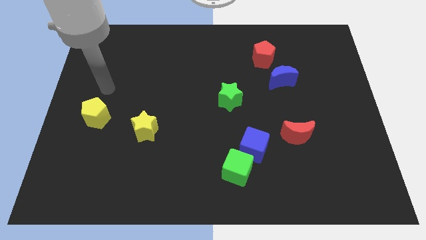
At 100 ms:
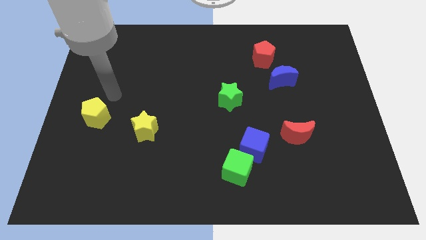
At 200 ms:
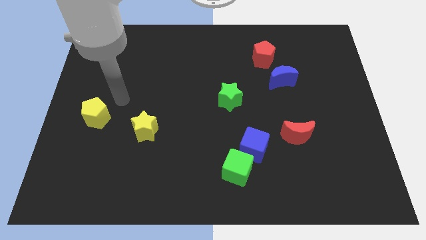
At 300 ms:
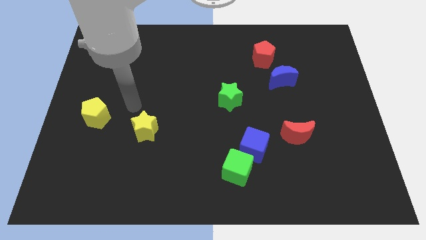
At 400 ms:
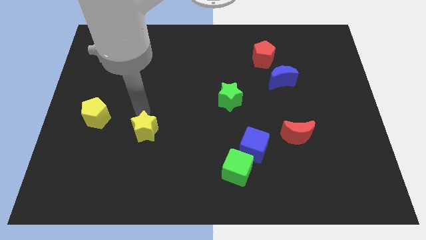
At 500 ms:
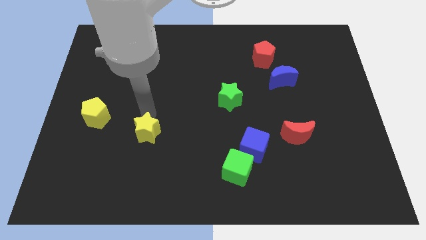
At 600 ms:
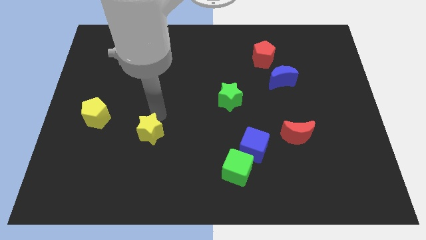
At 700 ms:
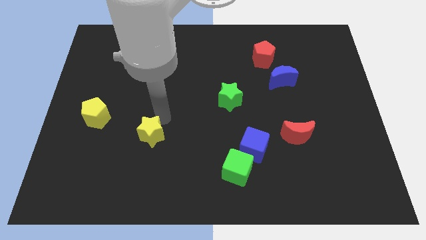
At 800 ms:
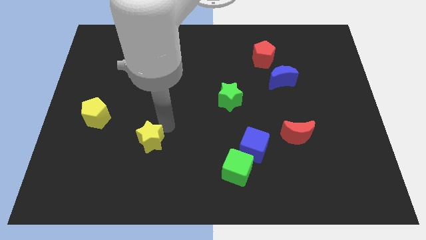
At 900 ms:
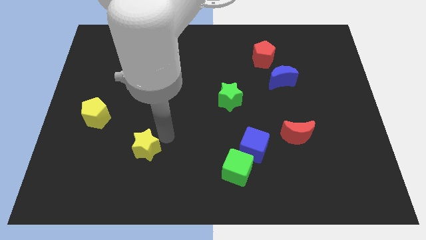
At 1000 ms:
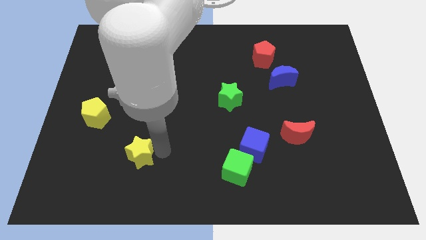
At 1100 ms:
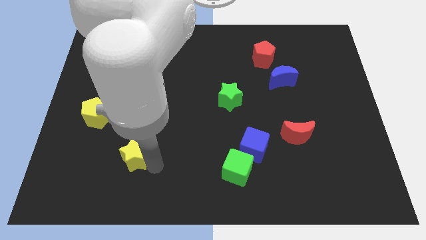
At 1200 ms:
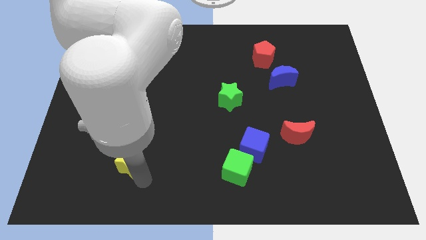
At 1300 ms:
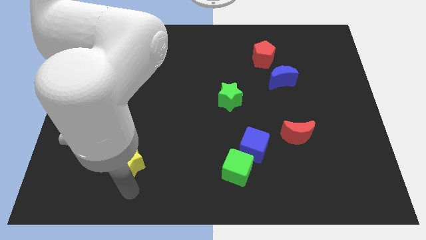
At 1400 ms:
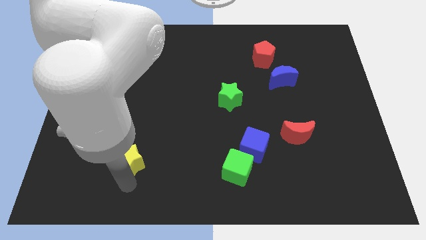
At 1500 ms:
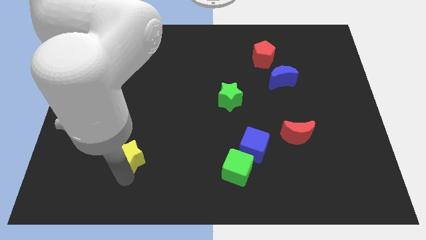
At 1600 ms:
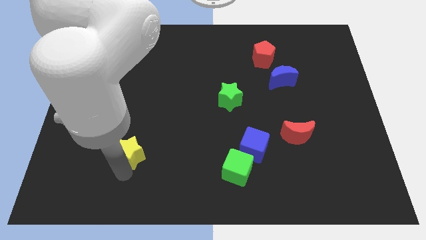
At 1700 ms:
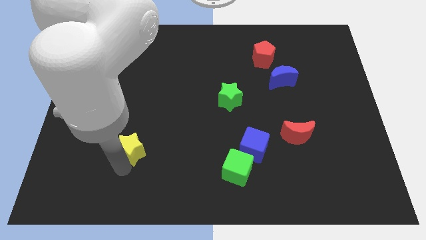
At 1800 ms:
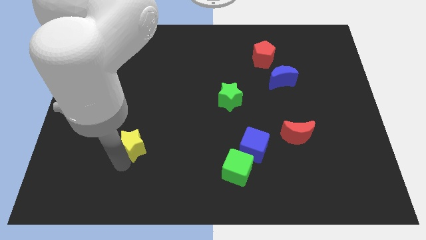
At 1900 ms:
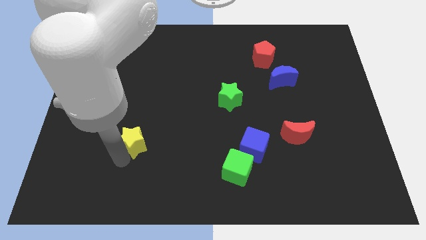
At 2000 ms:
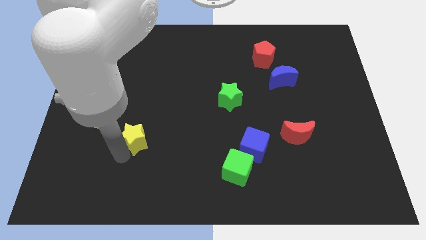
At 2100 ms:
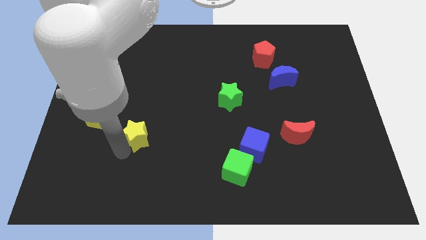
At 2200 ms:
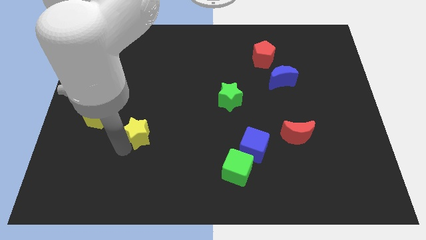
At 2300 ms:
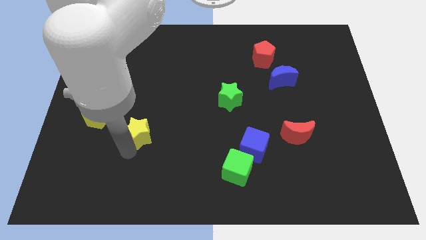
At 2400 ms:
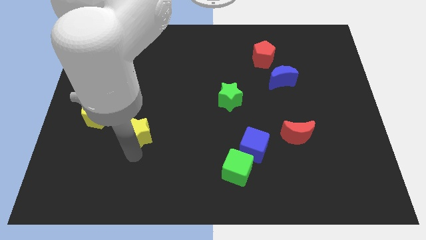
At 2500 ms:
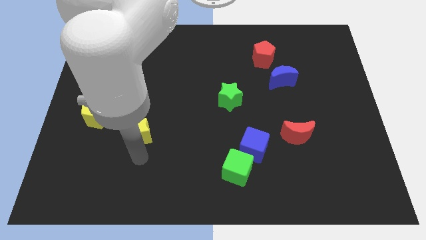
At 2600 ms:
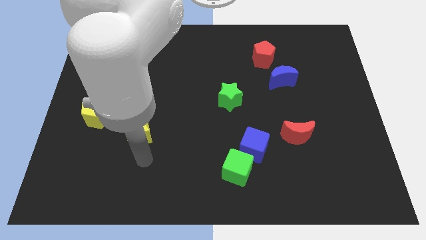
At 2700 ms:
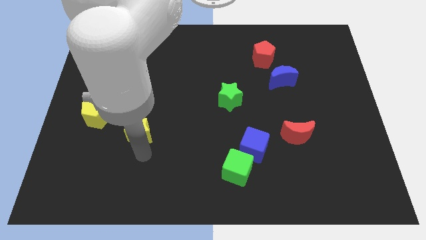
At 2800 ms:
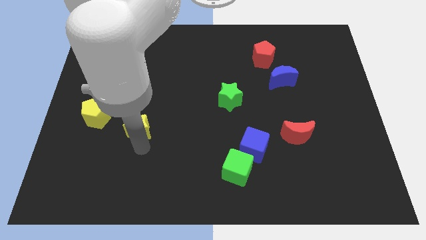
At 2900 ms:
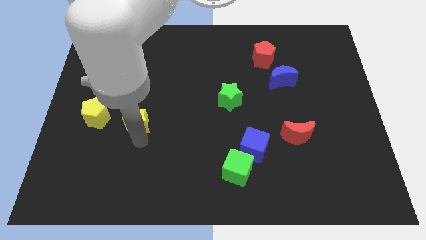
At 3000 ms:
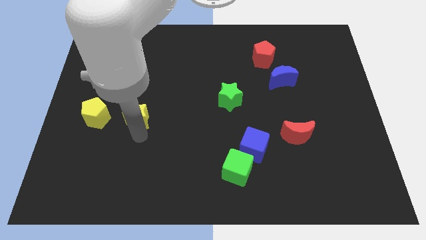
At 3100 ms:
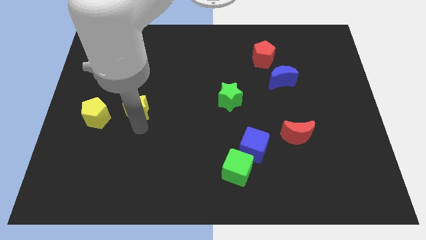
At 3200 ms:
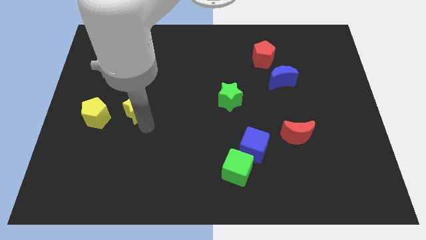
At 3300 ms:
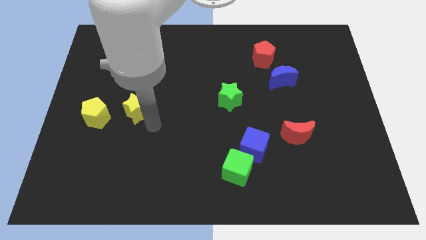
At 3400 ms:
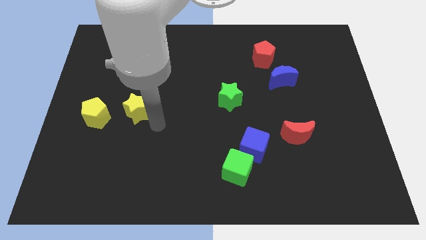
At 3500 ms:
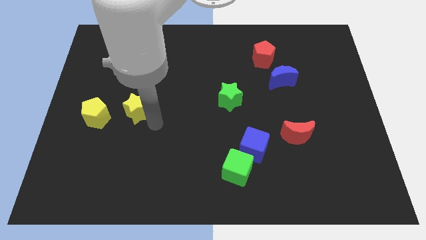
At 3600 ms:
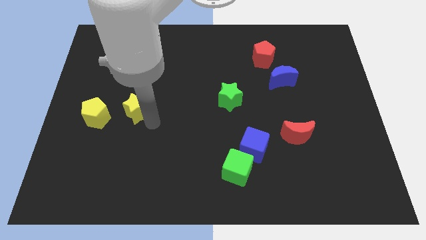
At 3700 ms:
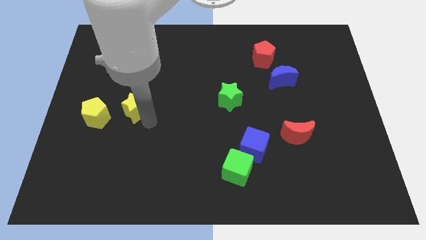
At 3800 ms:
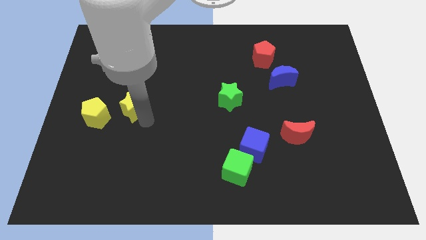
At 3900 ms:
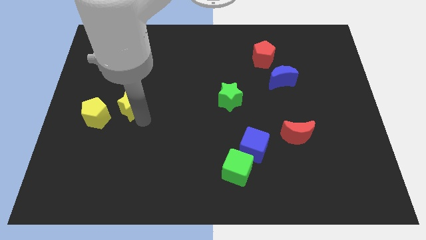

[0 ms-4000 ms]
push the yellow star a little bit upwards and then left

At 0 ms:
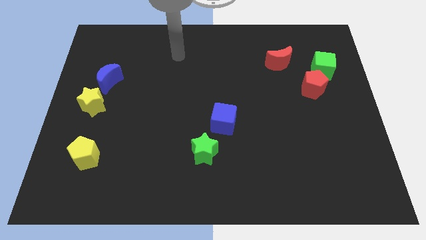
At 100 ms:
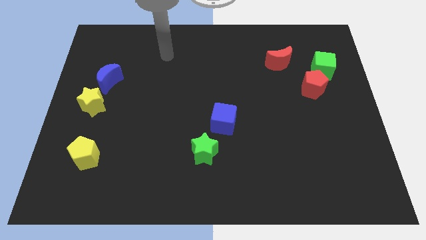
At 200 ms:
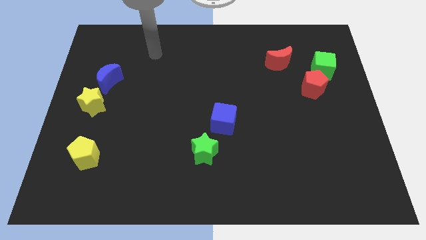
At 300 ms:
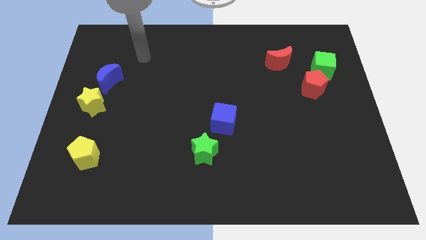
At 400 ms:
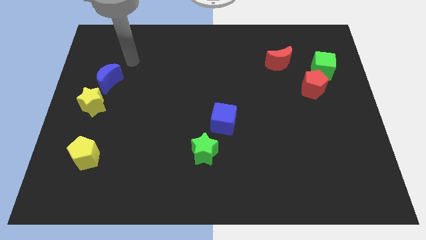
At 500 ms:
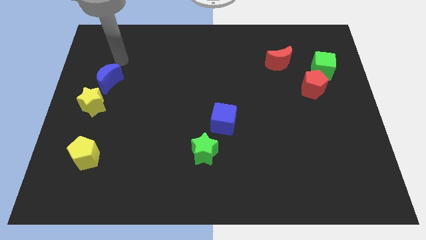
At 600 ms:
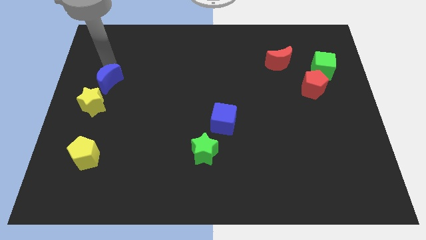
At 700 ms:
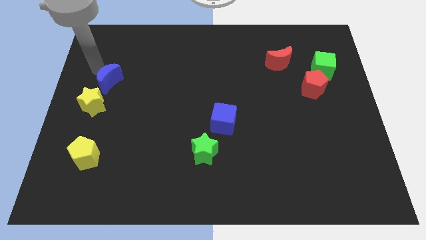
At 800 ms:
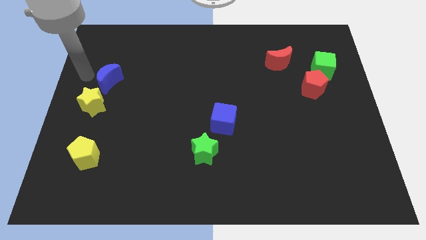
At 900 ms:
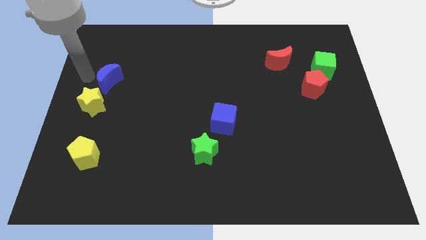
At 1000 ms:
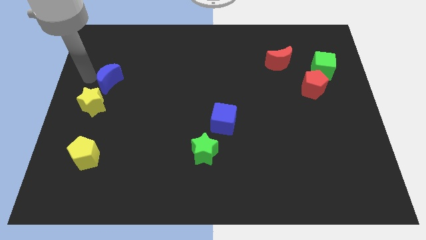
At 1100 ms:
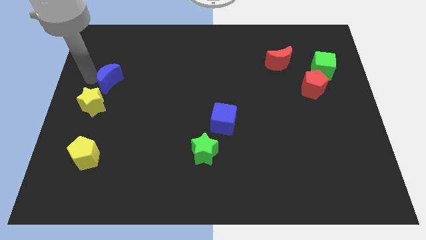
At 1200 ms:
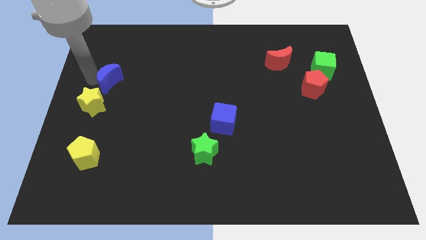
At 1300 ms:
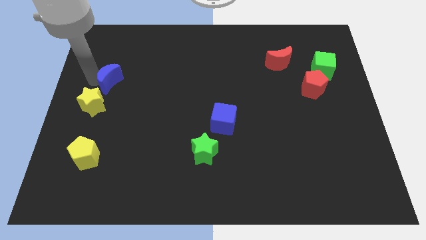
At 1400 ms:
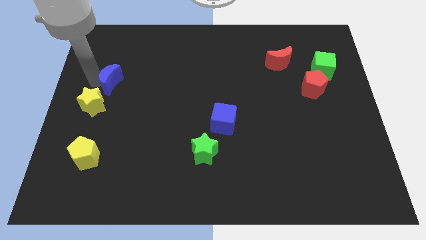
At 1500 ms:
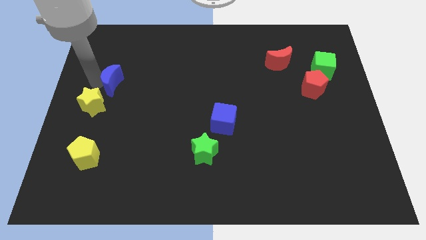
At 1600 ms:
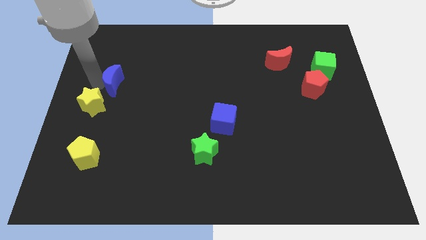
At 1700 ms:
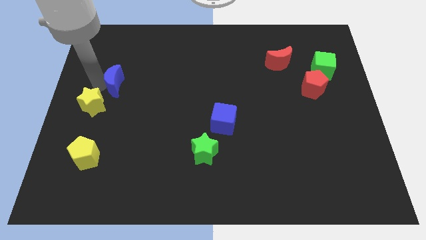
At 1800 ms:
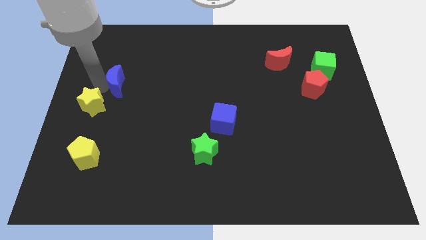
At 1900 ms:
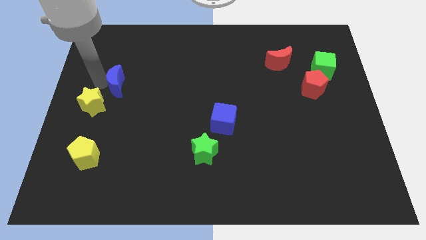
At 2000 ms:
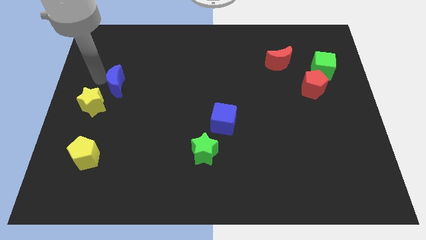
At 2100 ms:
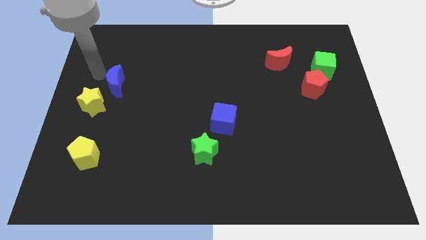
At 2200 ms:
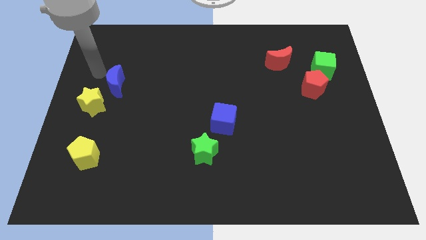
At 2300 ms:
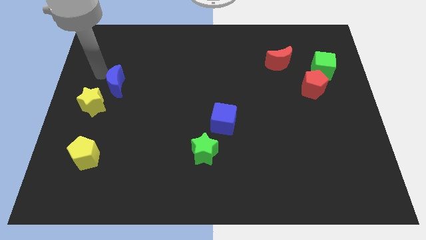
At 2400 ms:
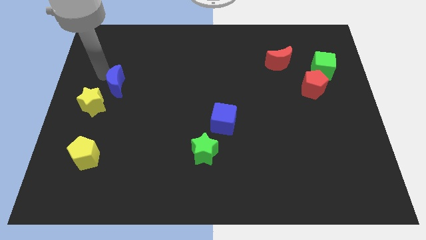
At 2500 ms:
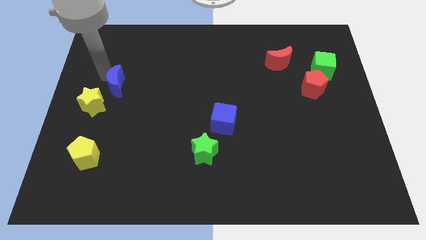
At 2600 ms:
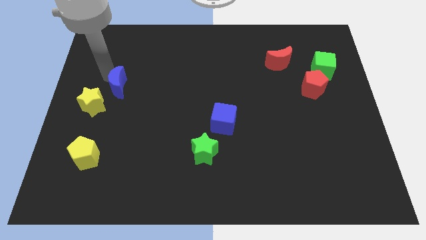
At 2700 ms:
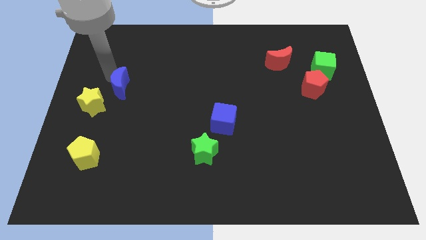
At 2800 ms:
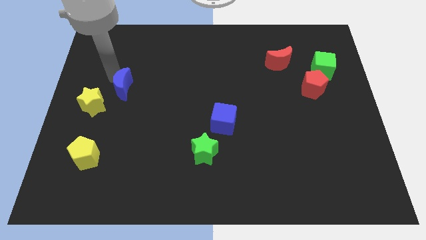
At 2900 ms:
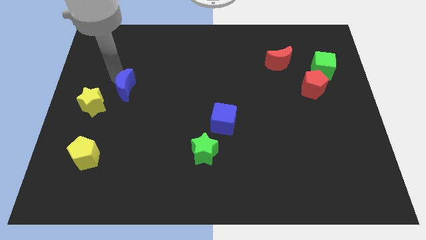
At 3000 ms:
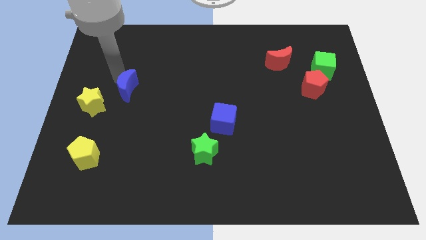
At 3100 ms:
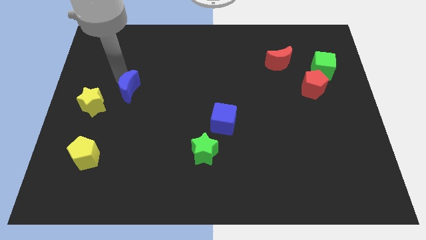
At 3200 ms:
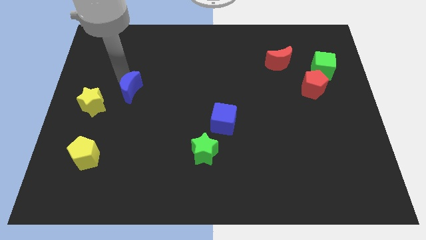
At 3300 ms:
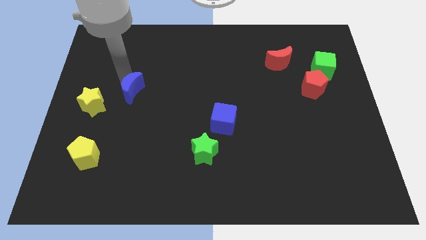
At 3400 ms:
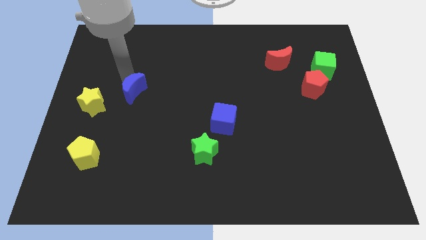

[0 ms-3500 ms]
slightly push the blue moon down and right

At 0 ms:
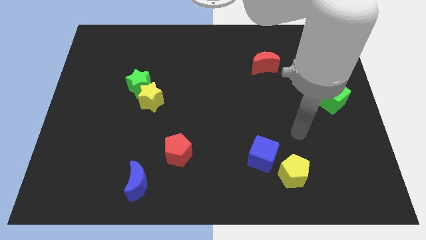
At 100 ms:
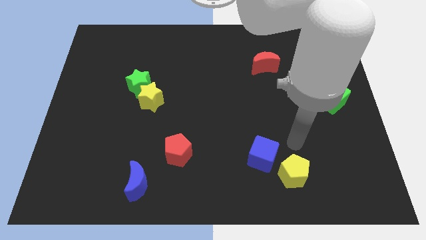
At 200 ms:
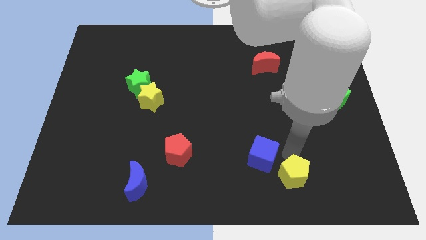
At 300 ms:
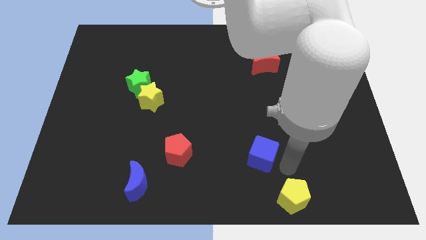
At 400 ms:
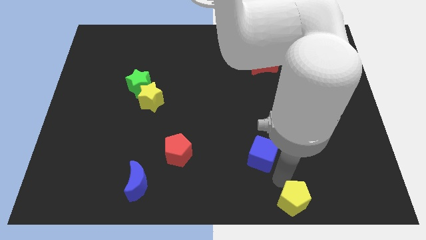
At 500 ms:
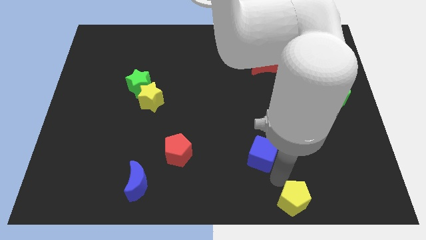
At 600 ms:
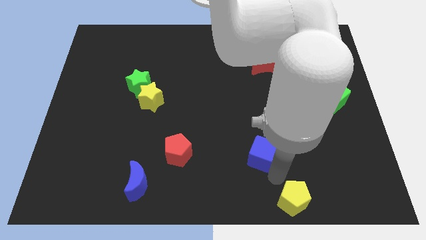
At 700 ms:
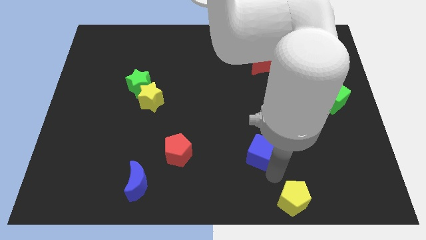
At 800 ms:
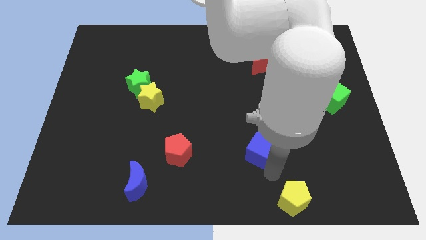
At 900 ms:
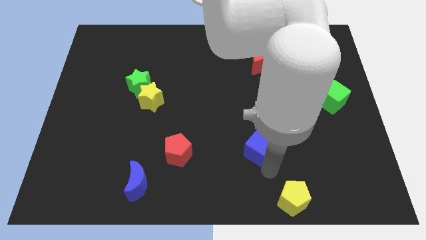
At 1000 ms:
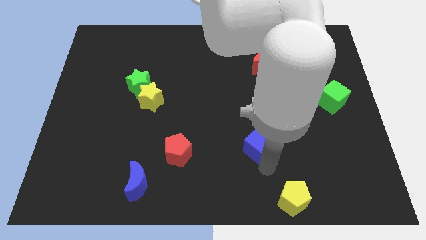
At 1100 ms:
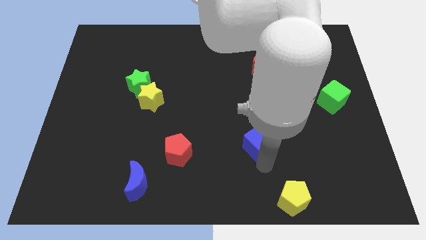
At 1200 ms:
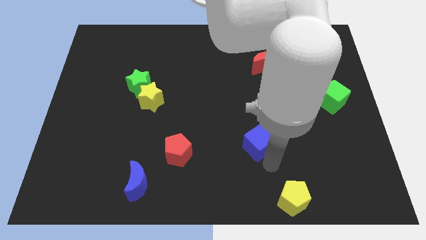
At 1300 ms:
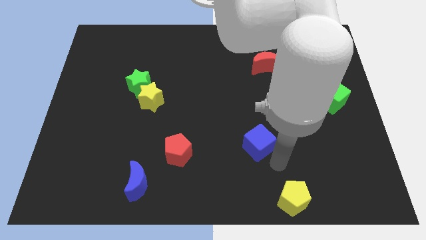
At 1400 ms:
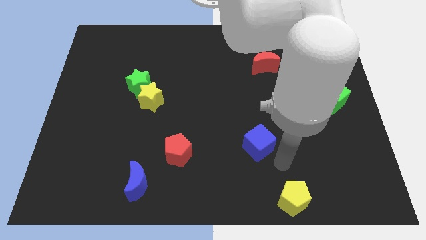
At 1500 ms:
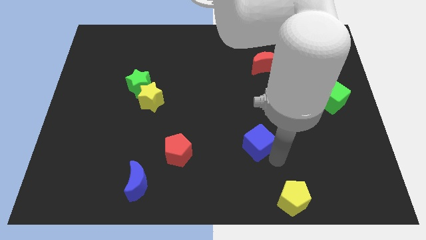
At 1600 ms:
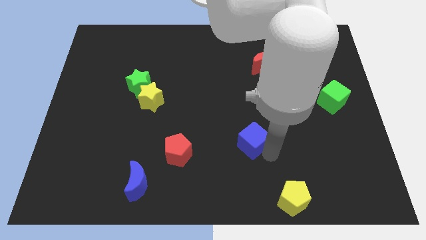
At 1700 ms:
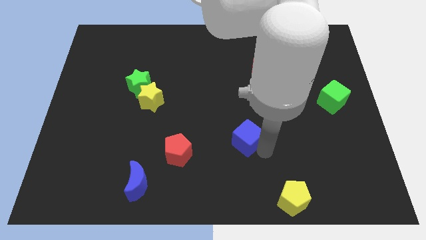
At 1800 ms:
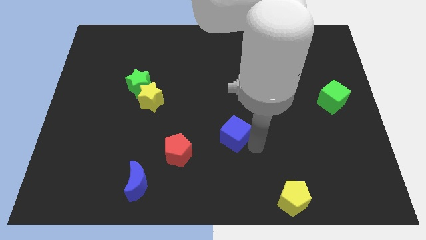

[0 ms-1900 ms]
slightly slide the blue cube upwards and then to the left
